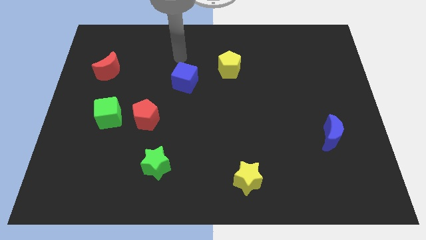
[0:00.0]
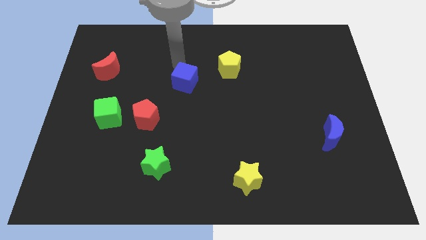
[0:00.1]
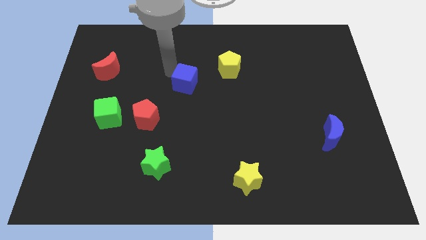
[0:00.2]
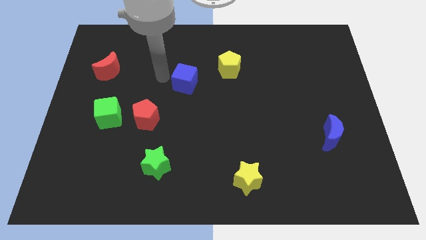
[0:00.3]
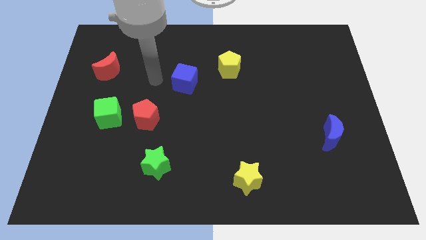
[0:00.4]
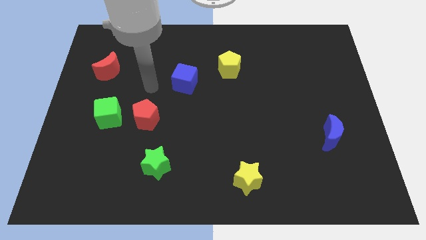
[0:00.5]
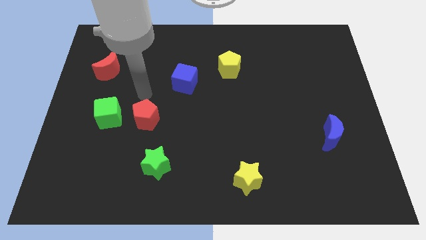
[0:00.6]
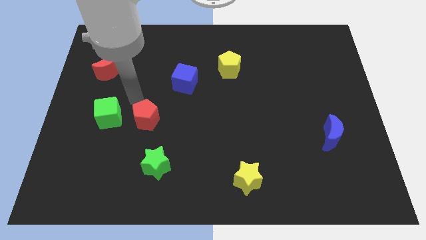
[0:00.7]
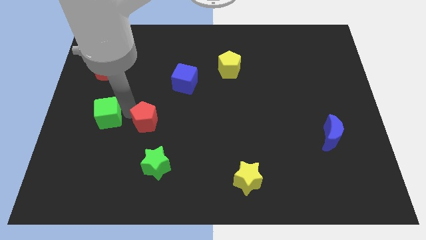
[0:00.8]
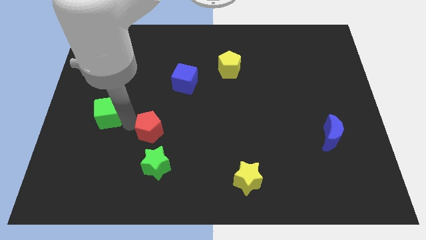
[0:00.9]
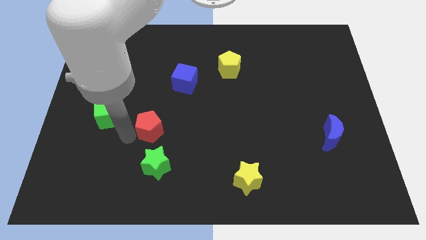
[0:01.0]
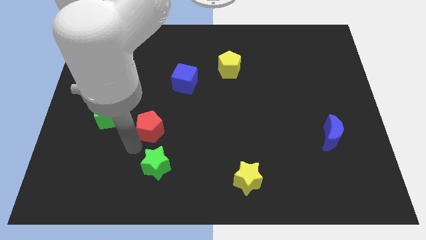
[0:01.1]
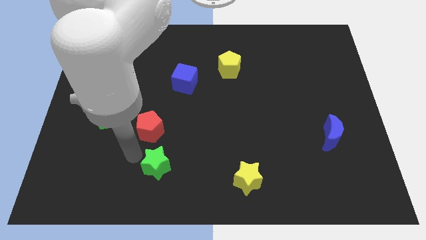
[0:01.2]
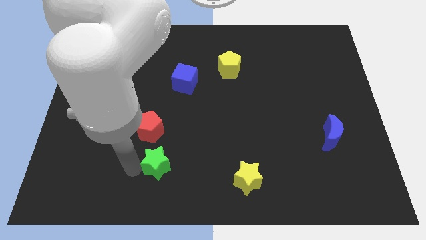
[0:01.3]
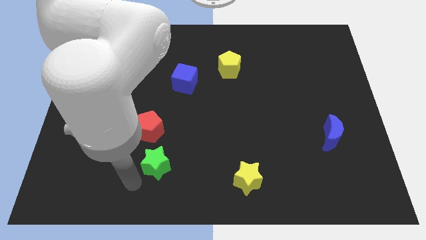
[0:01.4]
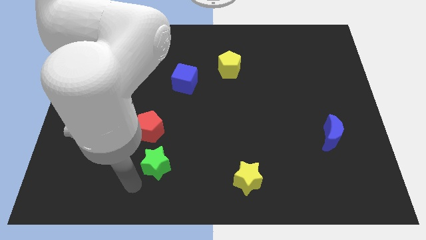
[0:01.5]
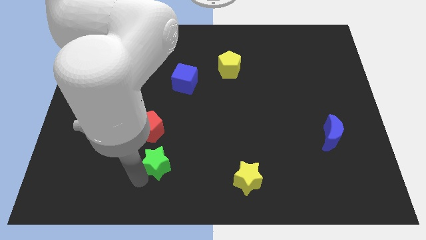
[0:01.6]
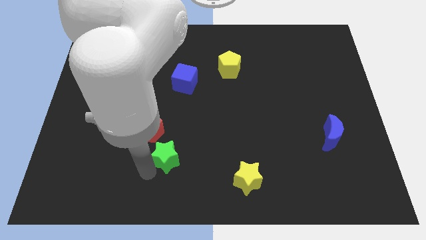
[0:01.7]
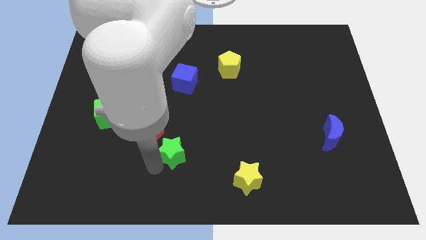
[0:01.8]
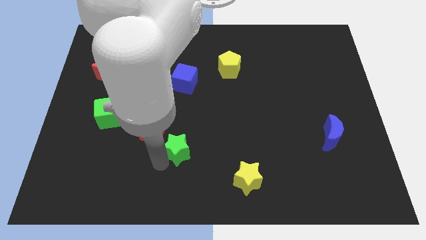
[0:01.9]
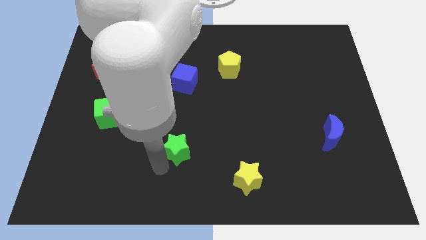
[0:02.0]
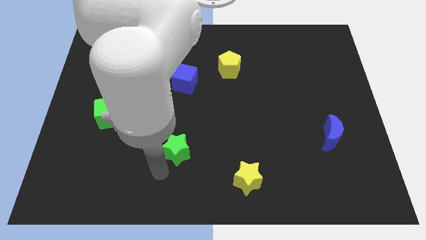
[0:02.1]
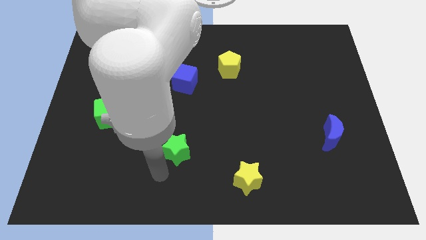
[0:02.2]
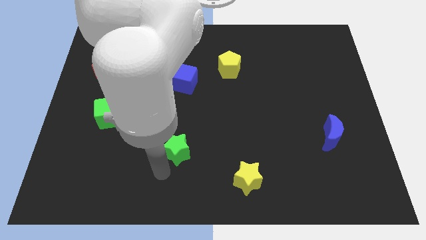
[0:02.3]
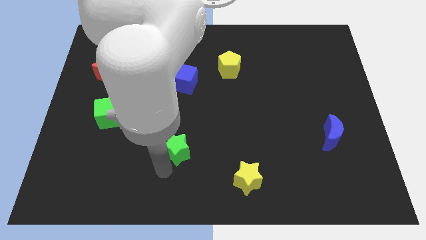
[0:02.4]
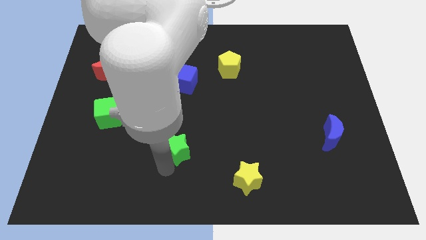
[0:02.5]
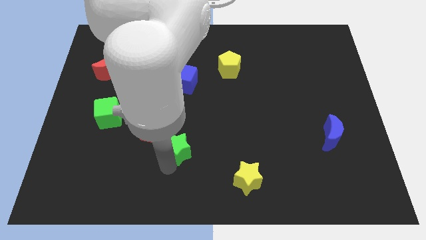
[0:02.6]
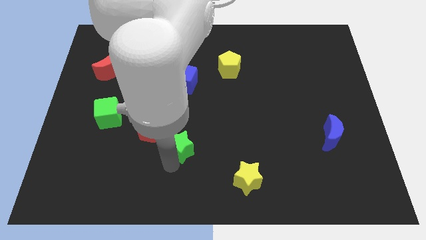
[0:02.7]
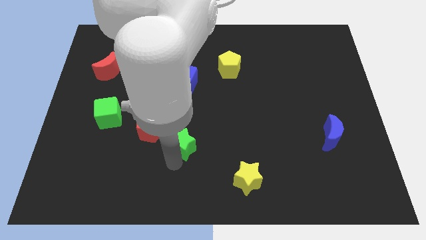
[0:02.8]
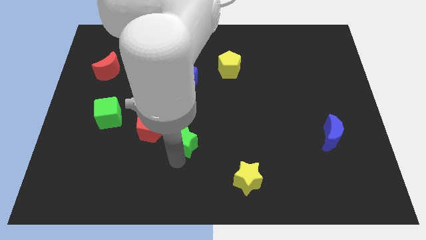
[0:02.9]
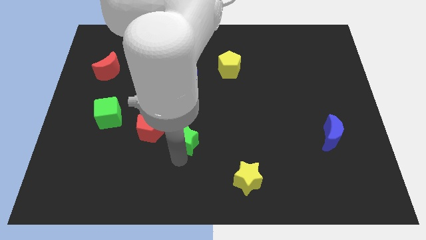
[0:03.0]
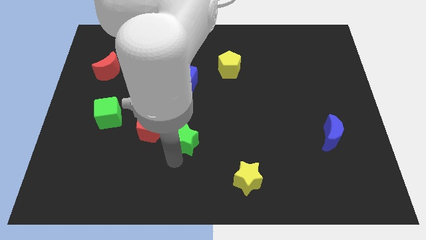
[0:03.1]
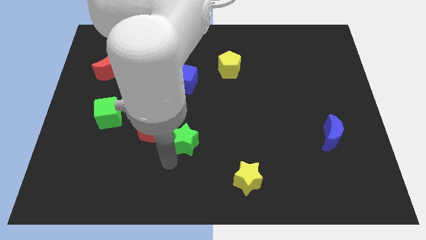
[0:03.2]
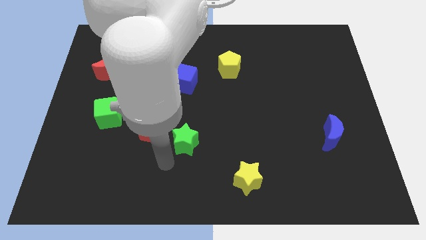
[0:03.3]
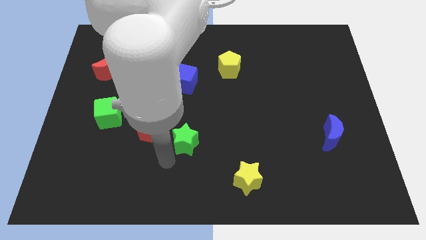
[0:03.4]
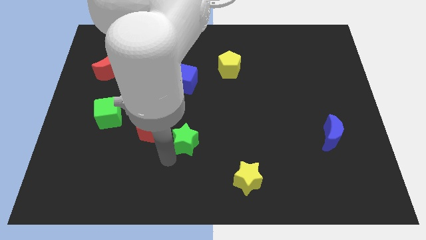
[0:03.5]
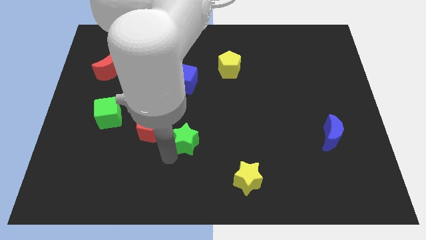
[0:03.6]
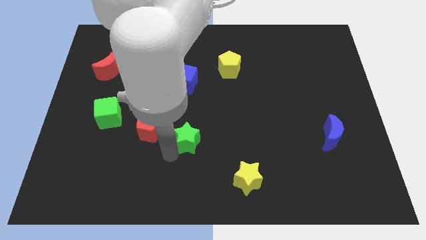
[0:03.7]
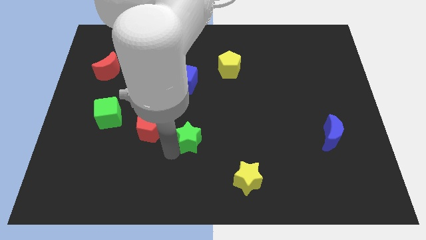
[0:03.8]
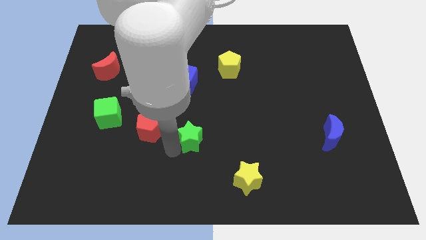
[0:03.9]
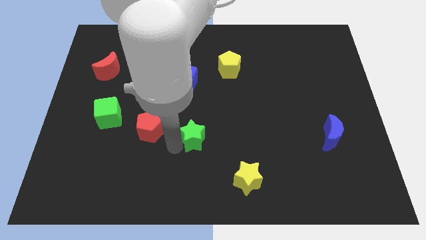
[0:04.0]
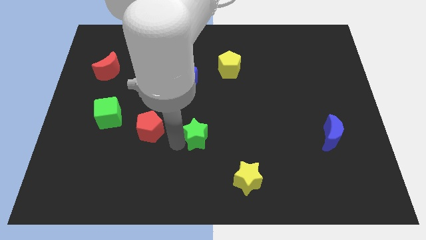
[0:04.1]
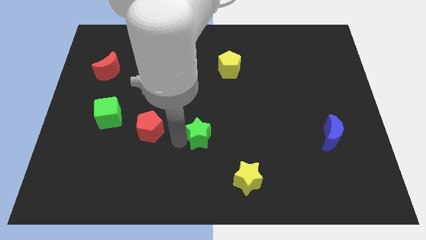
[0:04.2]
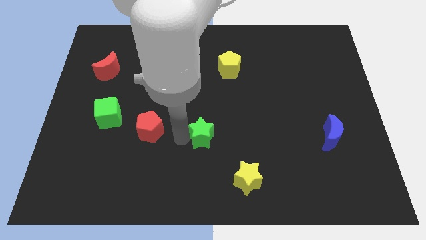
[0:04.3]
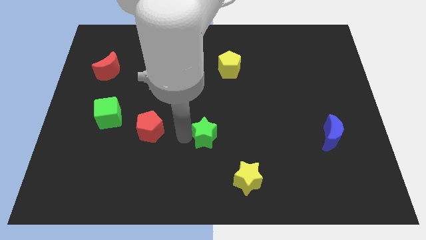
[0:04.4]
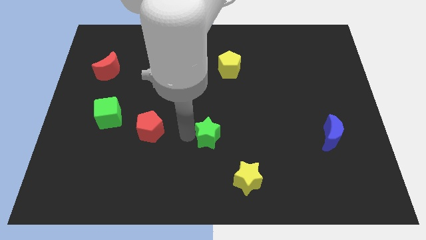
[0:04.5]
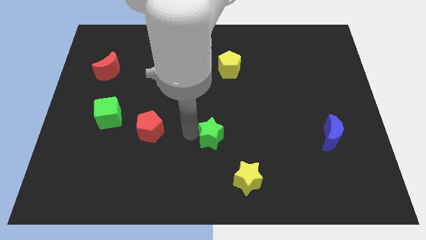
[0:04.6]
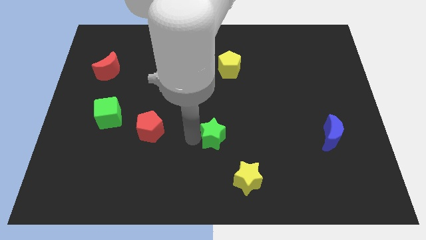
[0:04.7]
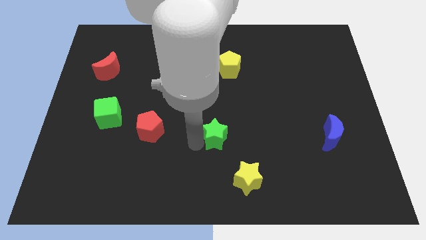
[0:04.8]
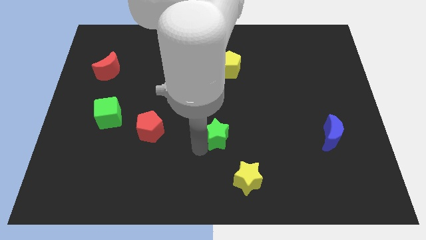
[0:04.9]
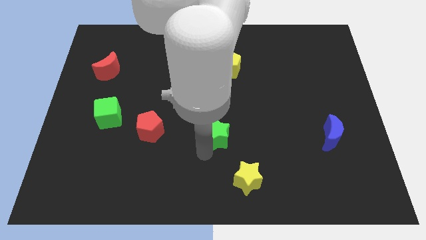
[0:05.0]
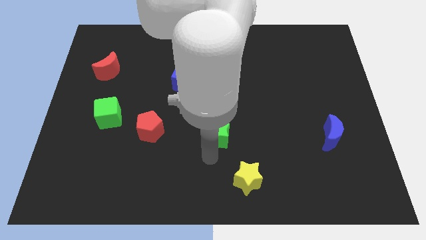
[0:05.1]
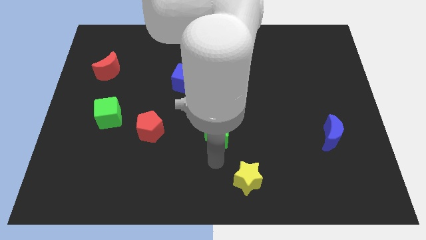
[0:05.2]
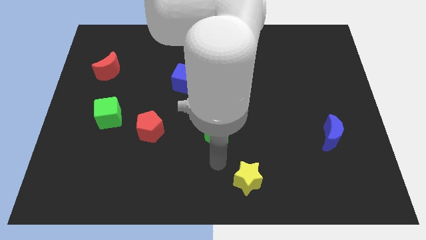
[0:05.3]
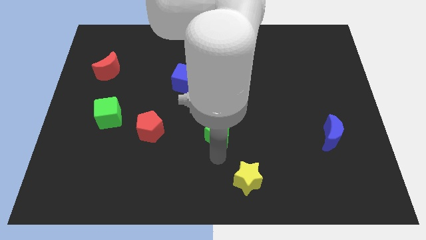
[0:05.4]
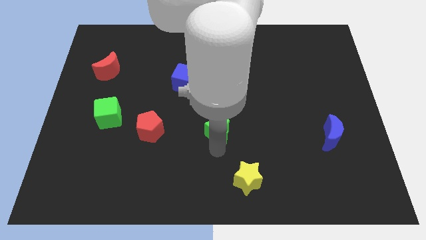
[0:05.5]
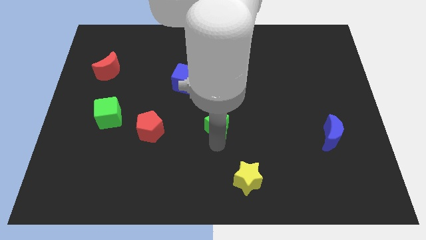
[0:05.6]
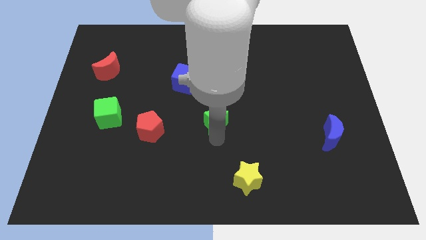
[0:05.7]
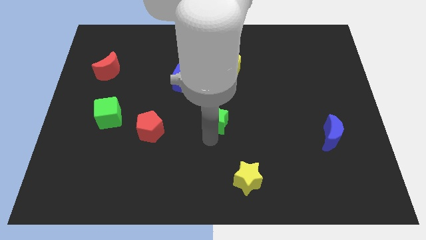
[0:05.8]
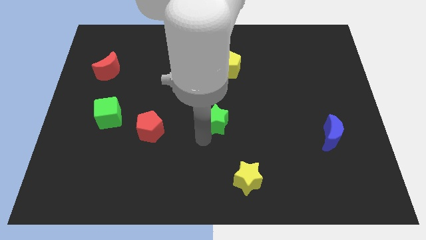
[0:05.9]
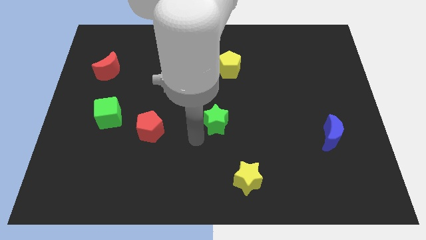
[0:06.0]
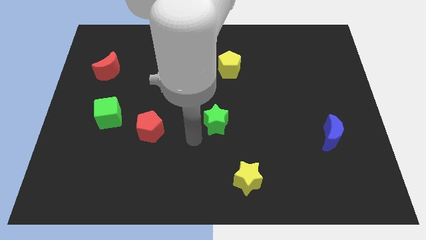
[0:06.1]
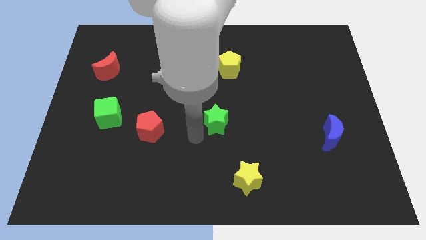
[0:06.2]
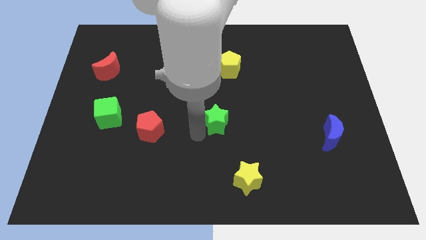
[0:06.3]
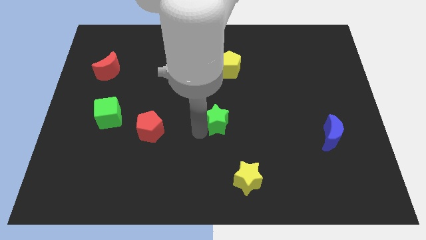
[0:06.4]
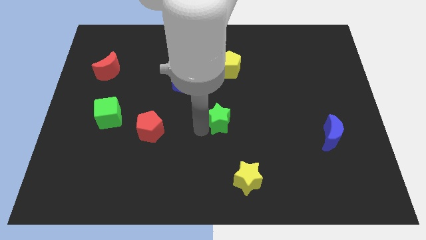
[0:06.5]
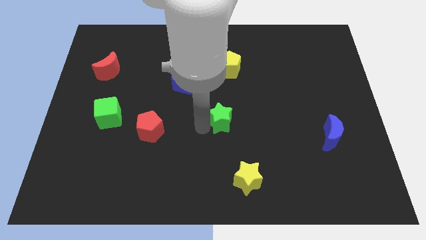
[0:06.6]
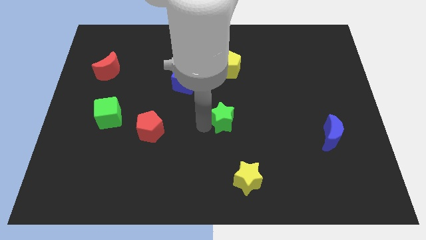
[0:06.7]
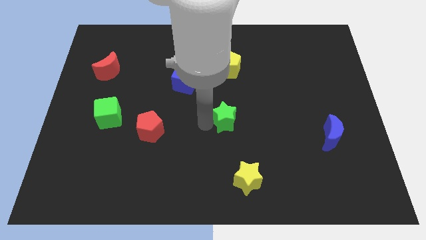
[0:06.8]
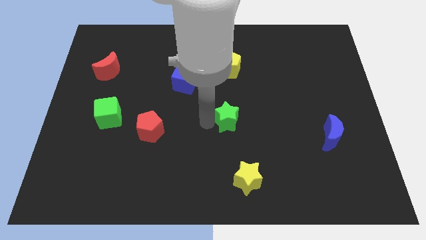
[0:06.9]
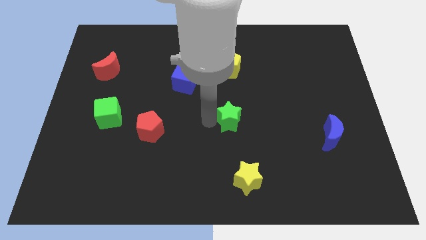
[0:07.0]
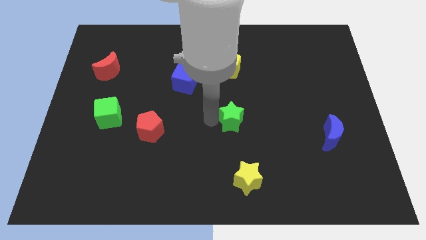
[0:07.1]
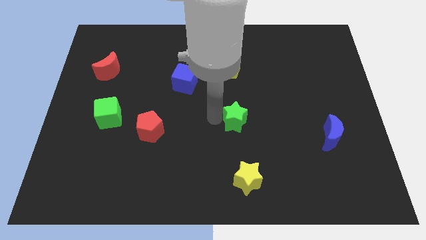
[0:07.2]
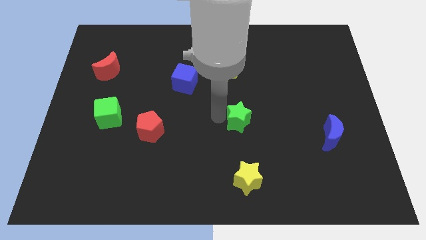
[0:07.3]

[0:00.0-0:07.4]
move the green star diagonally up and right

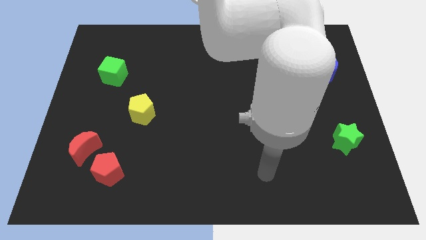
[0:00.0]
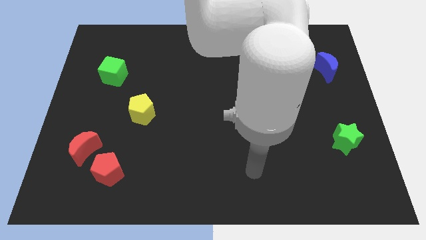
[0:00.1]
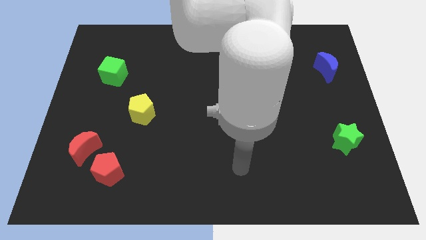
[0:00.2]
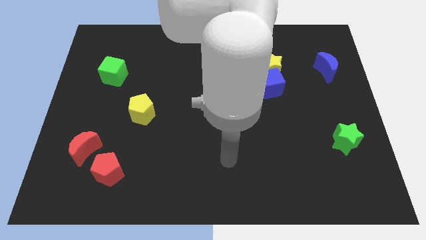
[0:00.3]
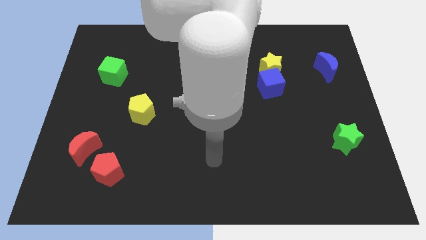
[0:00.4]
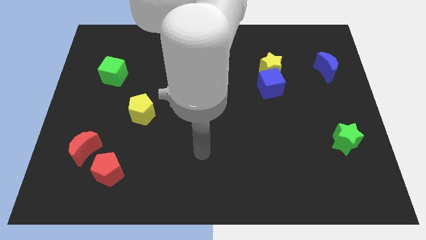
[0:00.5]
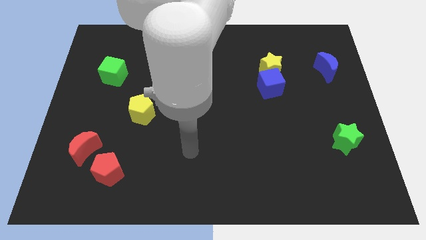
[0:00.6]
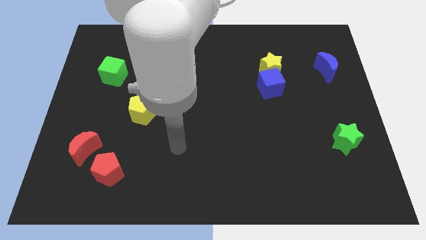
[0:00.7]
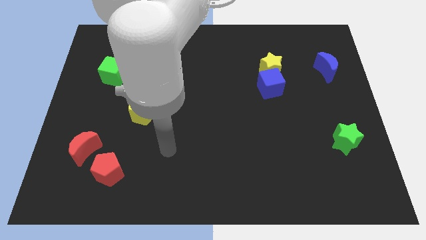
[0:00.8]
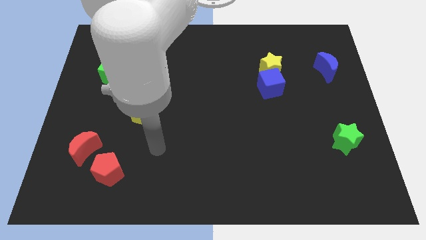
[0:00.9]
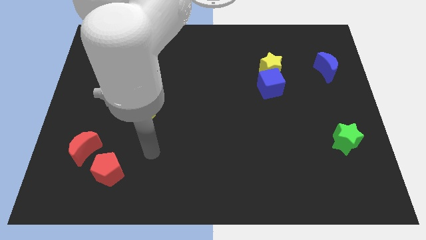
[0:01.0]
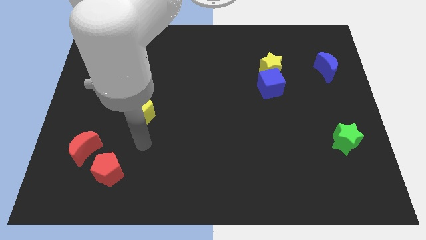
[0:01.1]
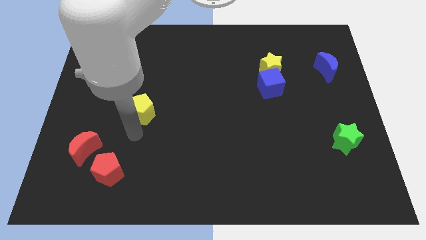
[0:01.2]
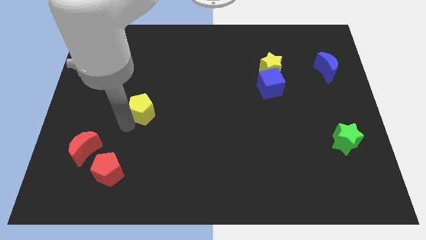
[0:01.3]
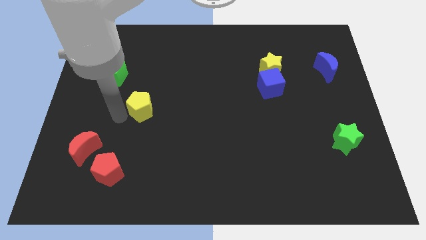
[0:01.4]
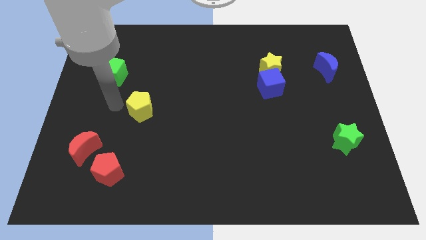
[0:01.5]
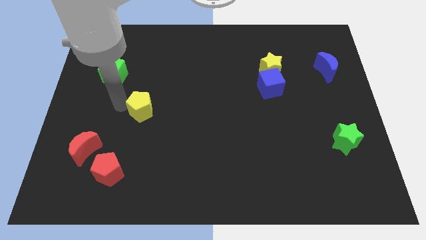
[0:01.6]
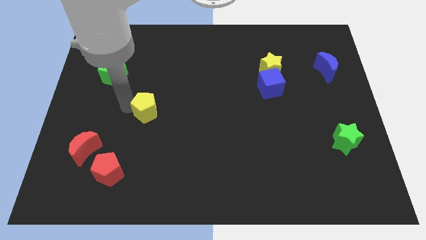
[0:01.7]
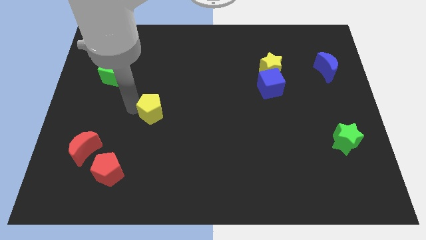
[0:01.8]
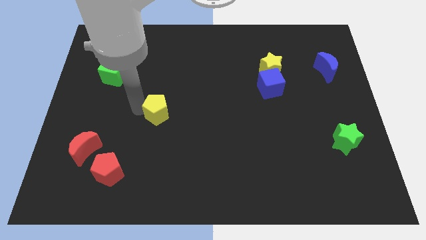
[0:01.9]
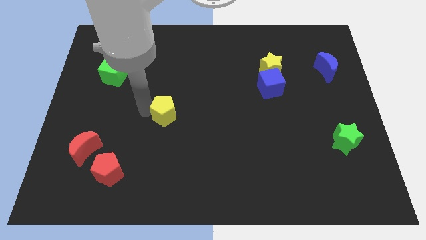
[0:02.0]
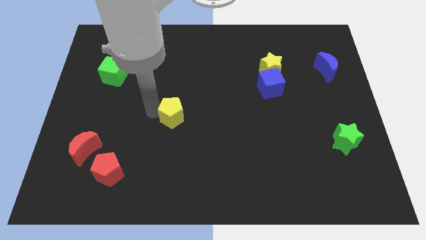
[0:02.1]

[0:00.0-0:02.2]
push the yellow pentagon right slightly
